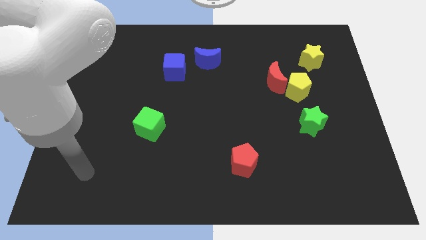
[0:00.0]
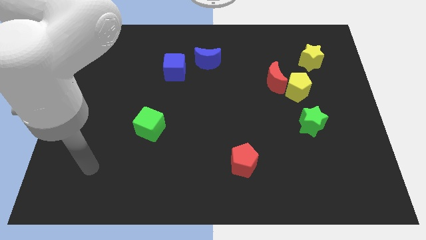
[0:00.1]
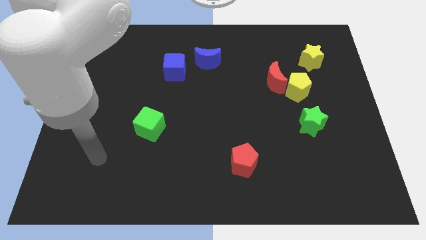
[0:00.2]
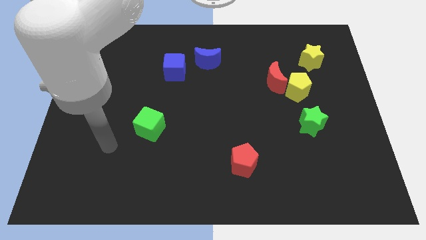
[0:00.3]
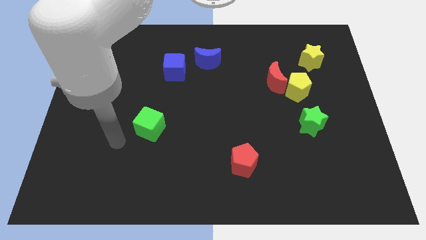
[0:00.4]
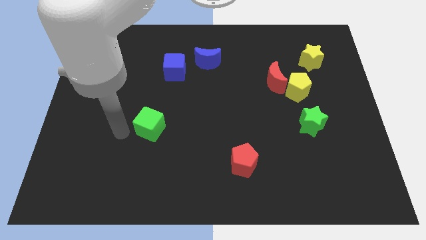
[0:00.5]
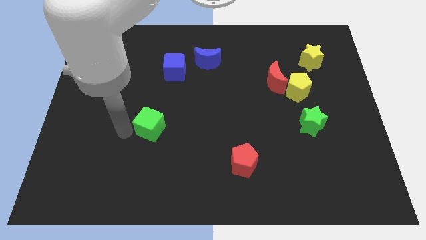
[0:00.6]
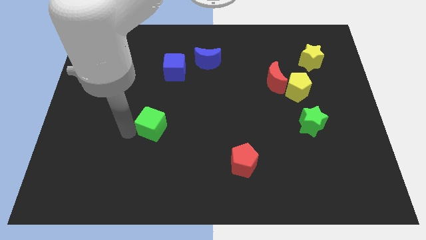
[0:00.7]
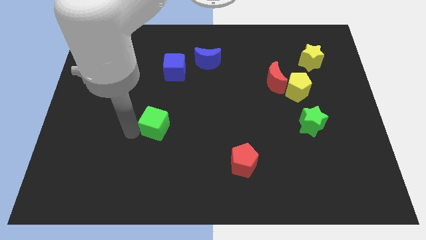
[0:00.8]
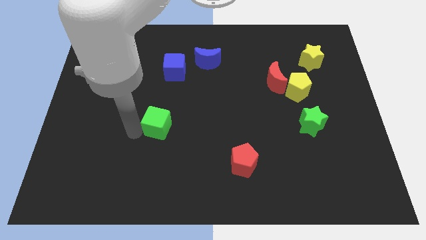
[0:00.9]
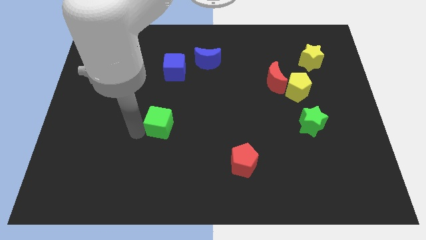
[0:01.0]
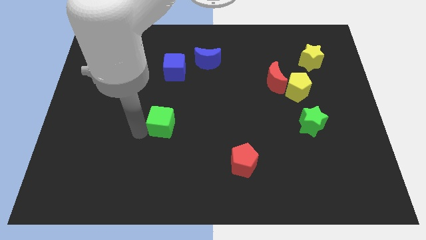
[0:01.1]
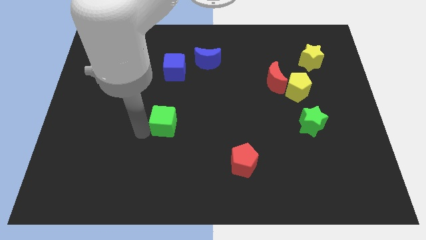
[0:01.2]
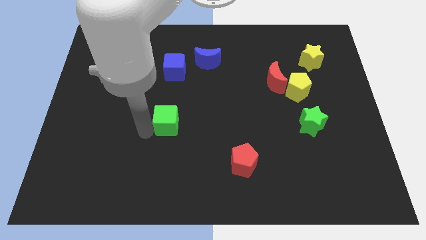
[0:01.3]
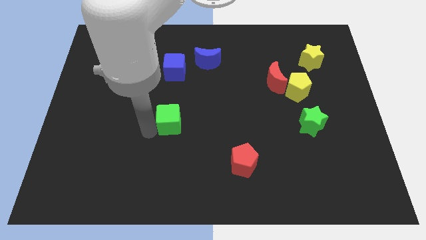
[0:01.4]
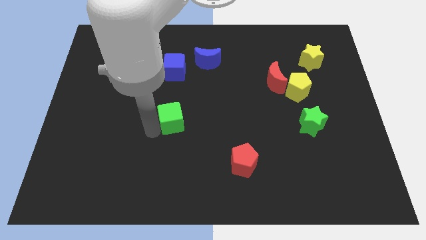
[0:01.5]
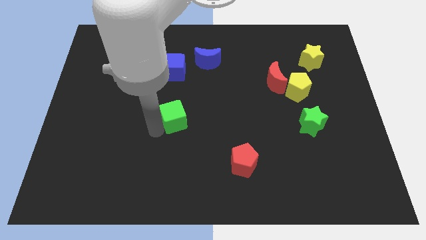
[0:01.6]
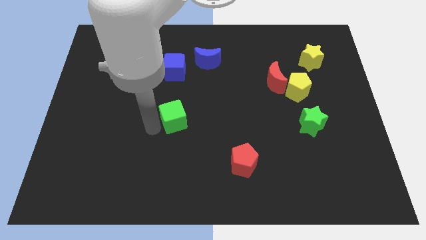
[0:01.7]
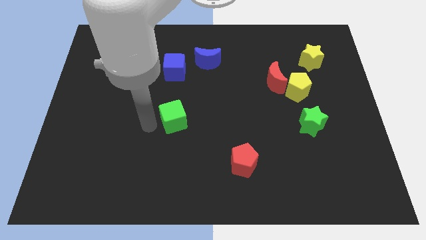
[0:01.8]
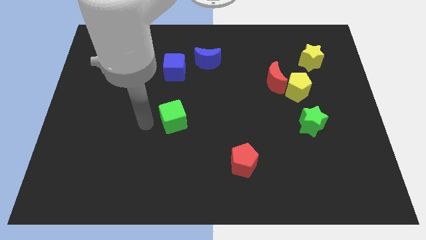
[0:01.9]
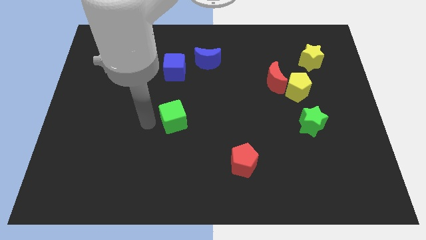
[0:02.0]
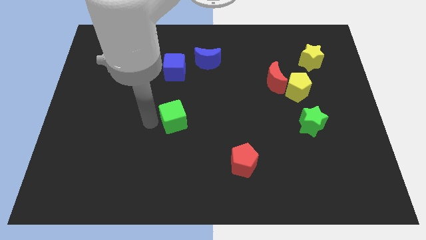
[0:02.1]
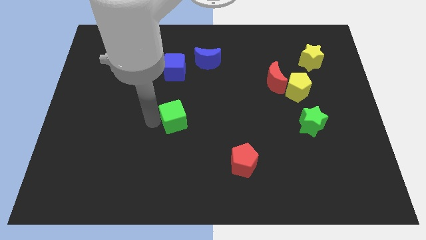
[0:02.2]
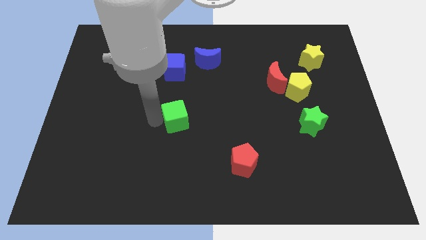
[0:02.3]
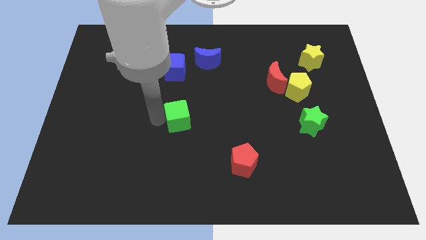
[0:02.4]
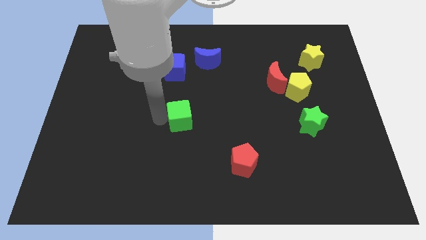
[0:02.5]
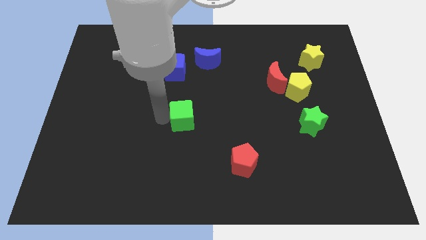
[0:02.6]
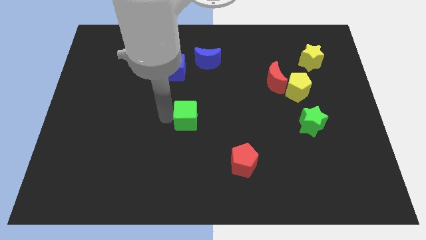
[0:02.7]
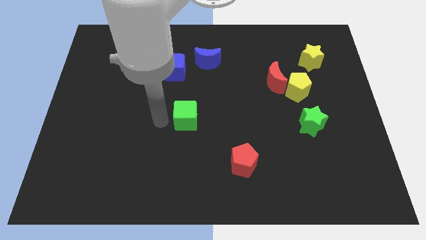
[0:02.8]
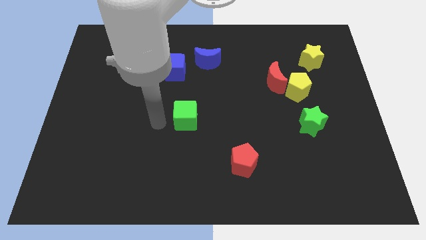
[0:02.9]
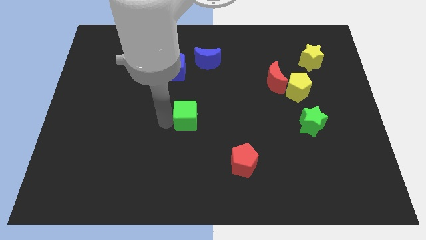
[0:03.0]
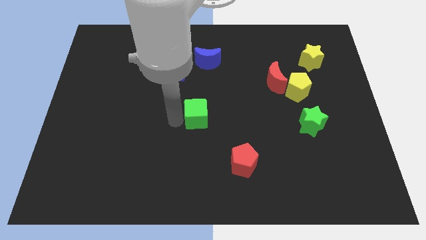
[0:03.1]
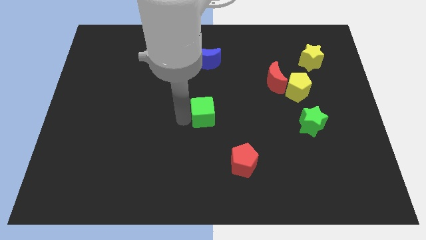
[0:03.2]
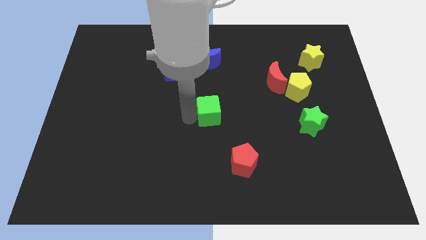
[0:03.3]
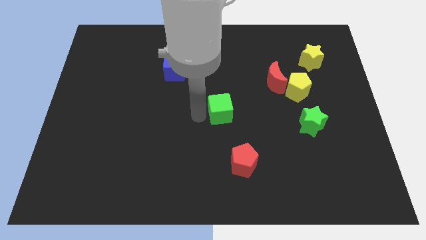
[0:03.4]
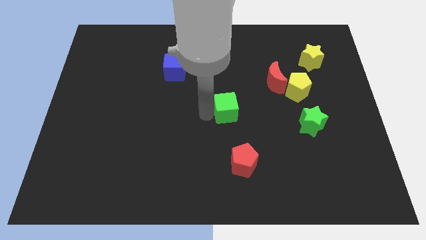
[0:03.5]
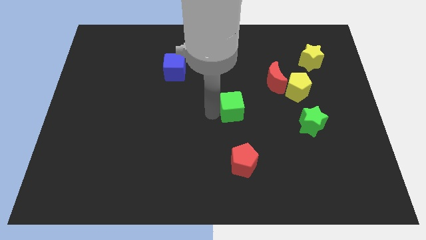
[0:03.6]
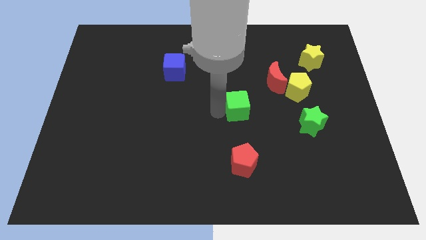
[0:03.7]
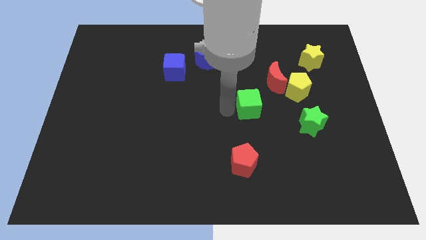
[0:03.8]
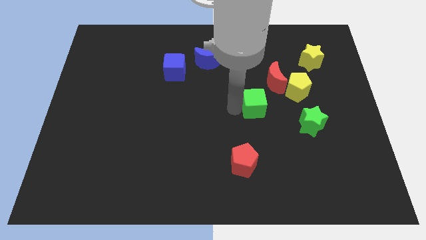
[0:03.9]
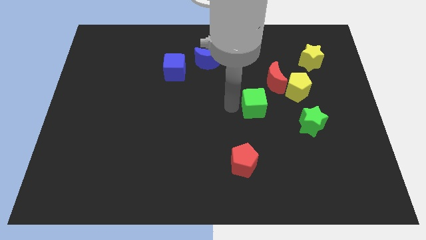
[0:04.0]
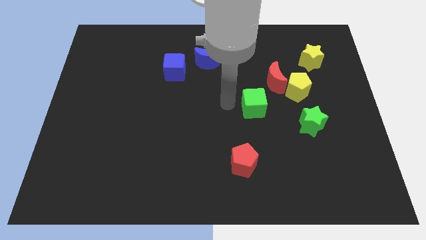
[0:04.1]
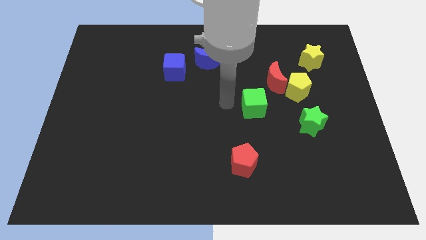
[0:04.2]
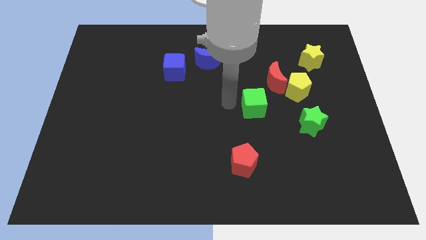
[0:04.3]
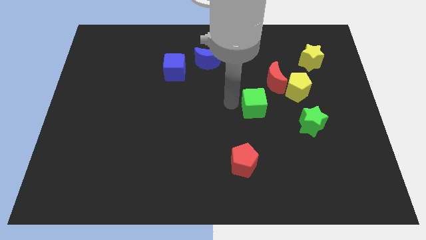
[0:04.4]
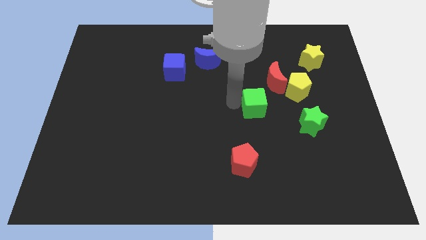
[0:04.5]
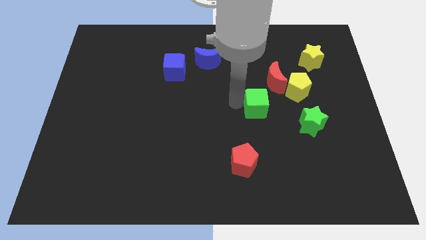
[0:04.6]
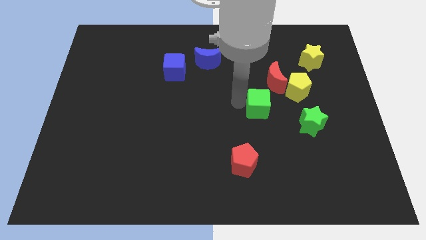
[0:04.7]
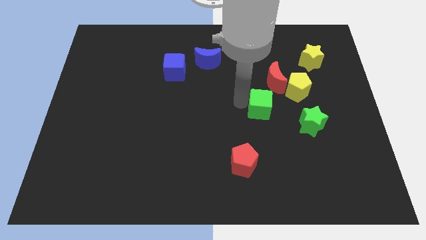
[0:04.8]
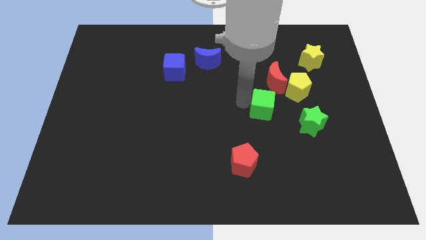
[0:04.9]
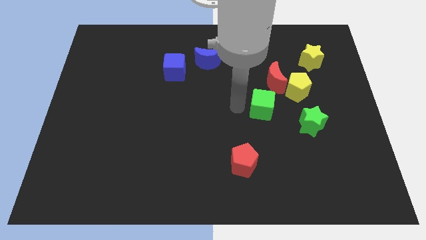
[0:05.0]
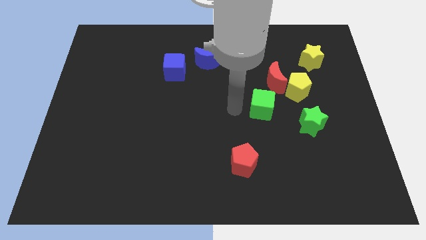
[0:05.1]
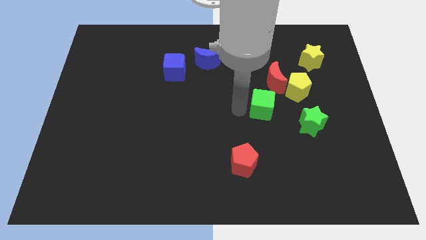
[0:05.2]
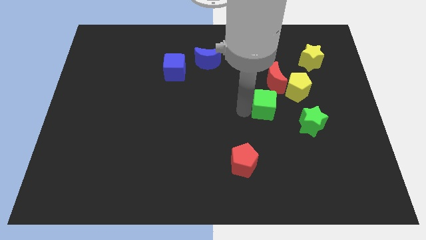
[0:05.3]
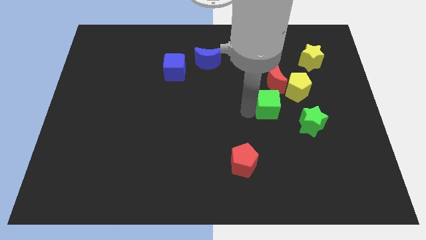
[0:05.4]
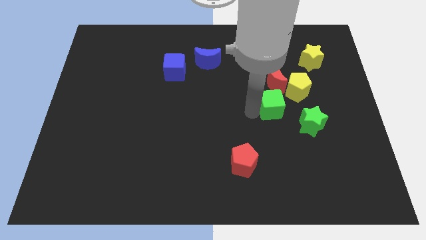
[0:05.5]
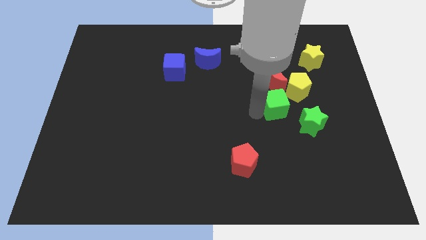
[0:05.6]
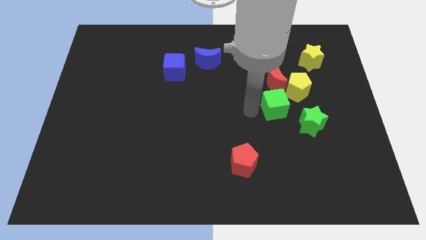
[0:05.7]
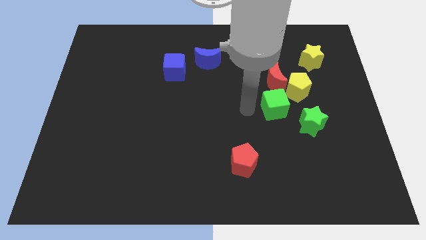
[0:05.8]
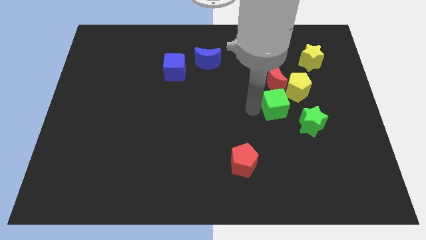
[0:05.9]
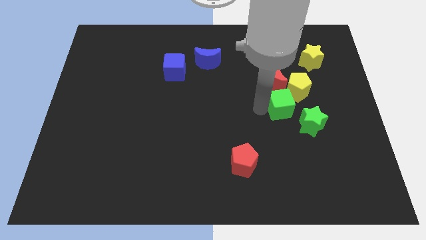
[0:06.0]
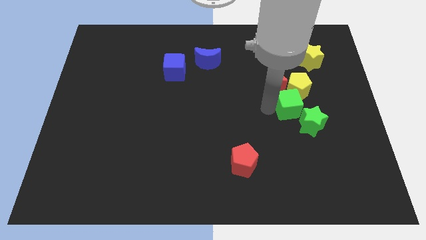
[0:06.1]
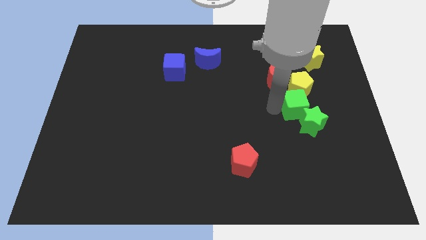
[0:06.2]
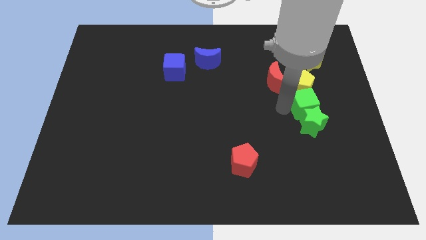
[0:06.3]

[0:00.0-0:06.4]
push the green cube to the top right side of the green star

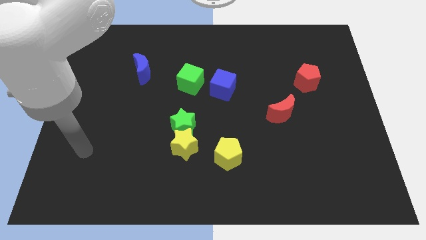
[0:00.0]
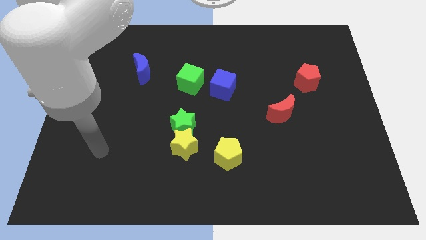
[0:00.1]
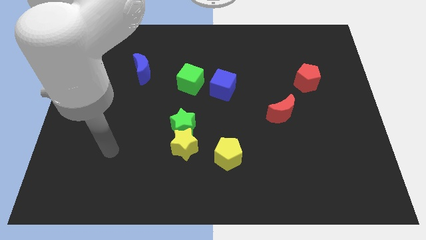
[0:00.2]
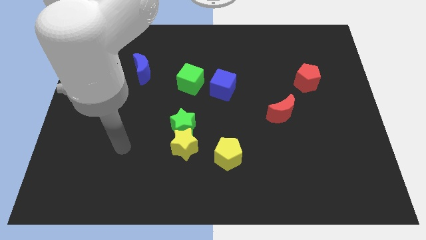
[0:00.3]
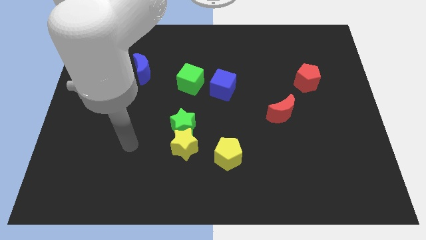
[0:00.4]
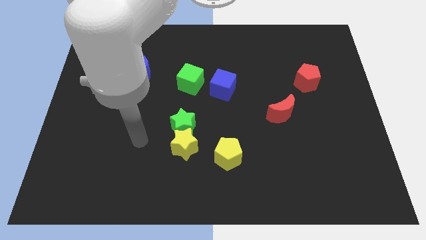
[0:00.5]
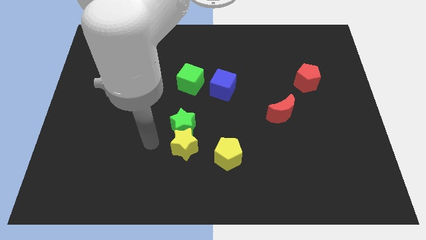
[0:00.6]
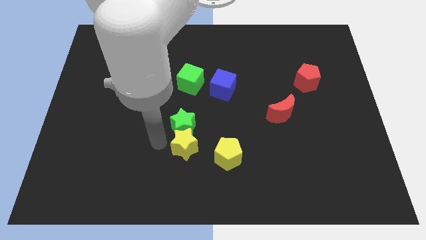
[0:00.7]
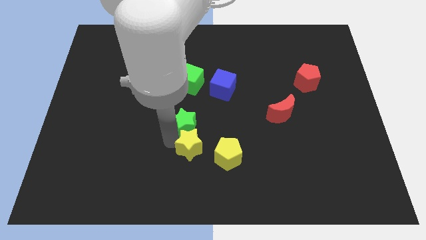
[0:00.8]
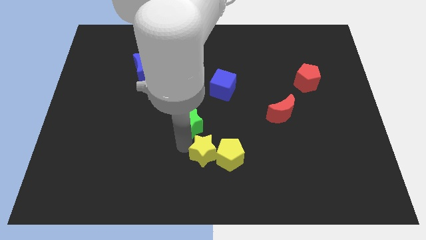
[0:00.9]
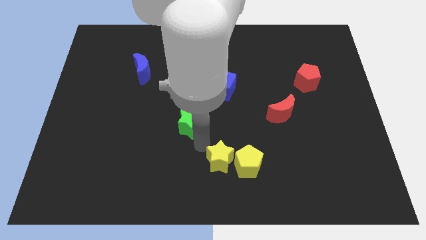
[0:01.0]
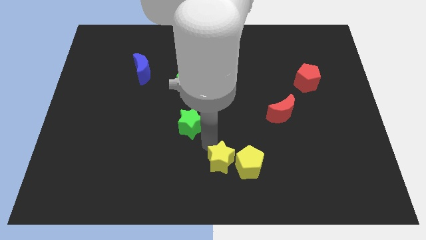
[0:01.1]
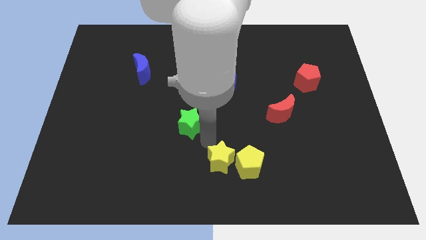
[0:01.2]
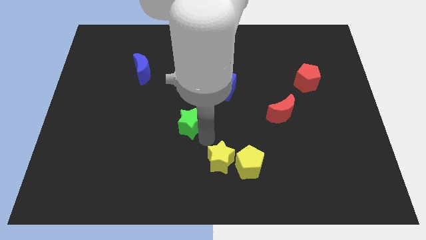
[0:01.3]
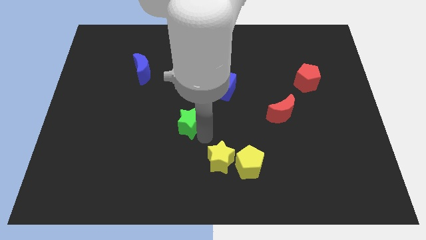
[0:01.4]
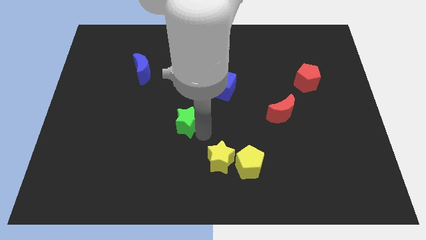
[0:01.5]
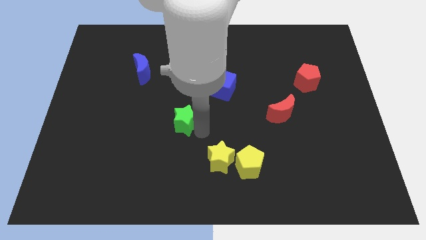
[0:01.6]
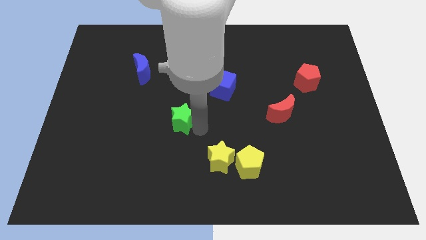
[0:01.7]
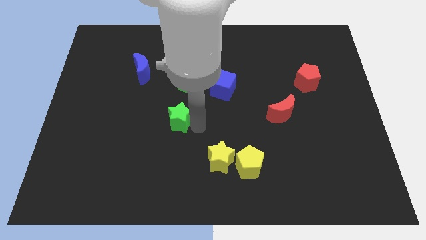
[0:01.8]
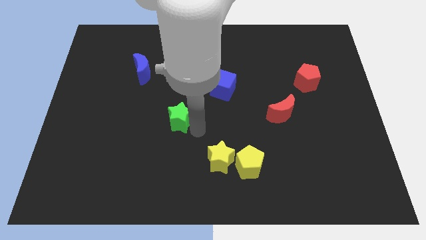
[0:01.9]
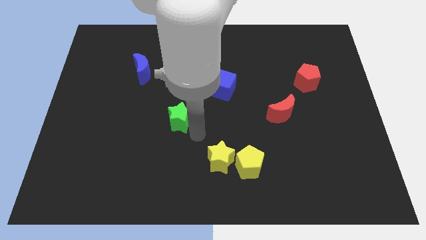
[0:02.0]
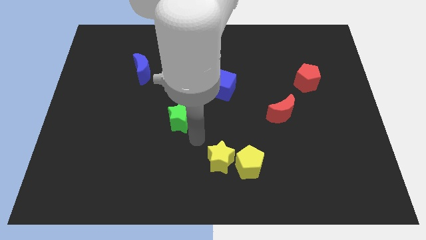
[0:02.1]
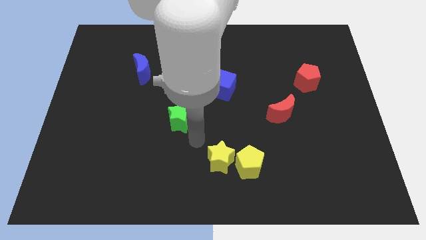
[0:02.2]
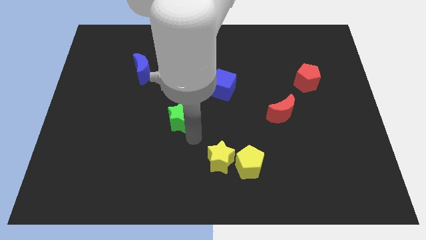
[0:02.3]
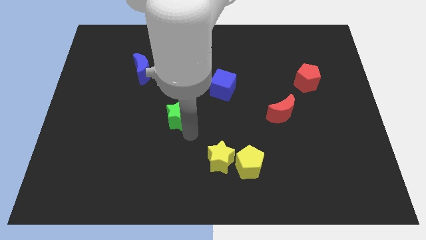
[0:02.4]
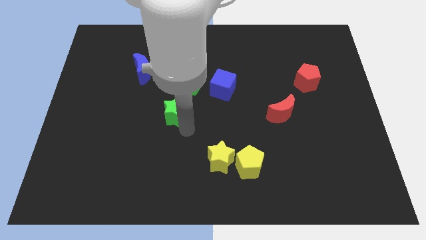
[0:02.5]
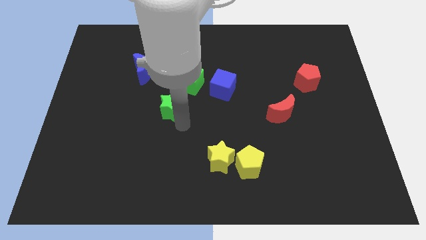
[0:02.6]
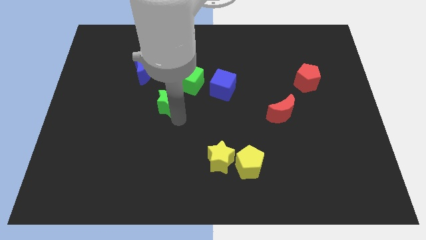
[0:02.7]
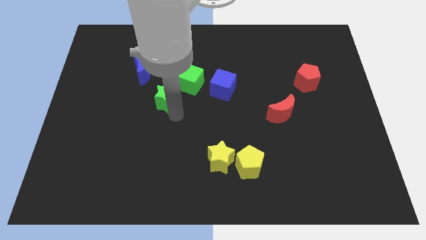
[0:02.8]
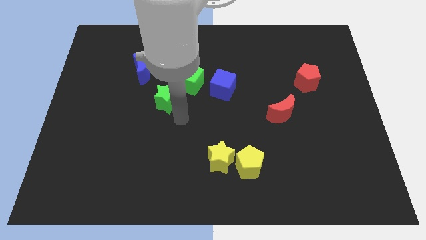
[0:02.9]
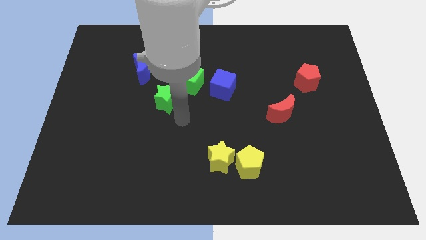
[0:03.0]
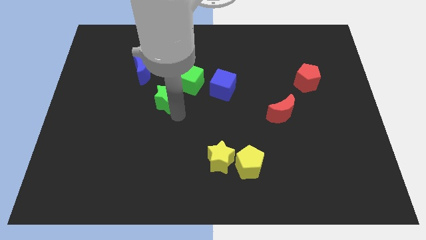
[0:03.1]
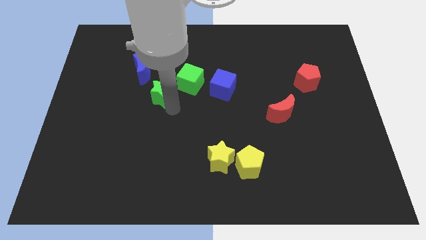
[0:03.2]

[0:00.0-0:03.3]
move the green star to the left of the green cube
